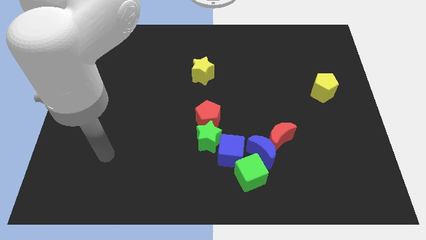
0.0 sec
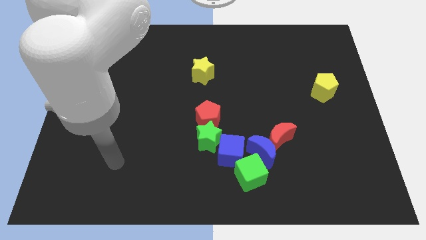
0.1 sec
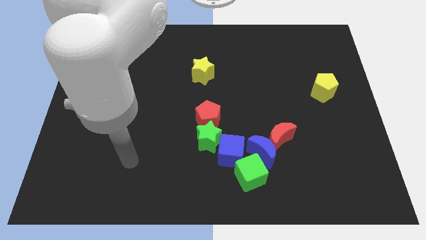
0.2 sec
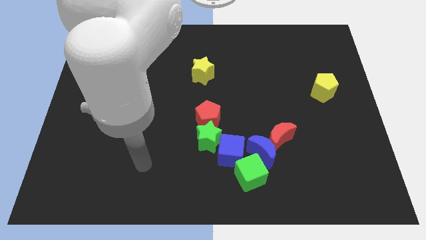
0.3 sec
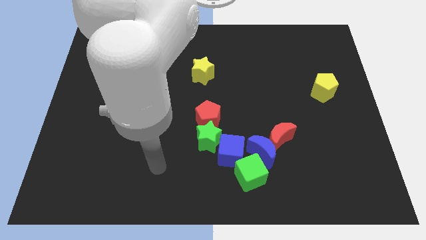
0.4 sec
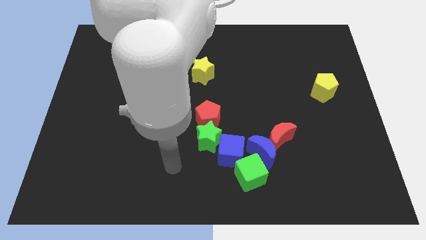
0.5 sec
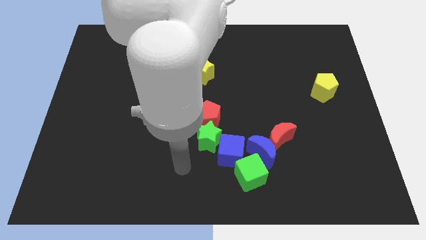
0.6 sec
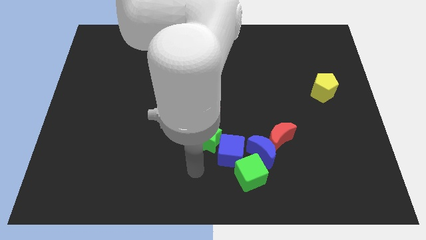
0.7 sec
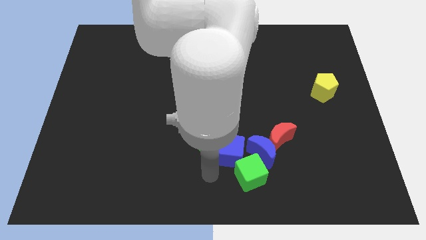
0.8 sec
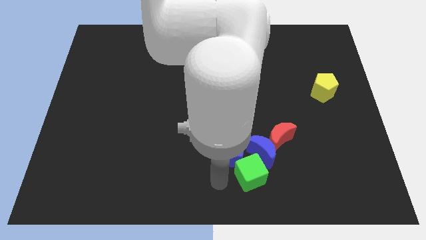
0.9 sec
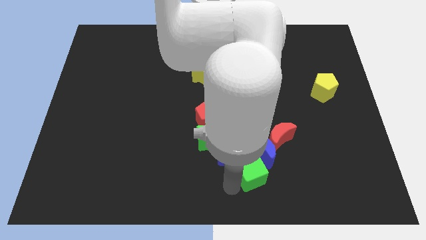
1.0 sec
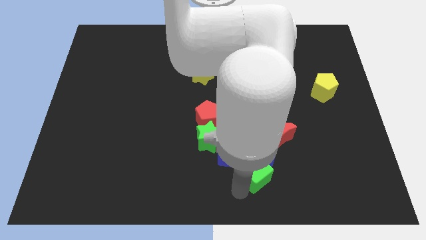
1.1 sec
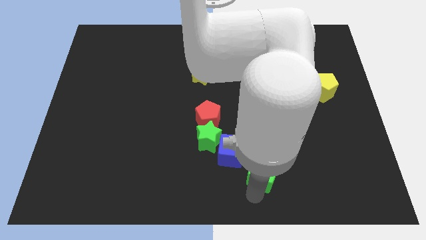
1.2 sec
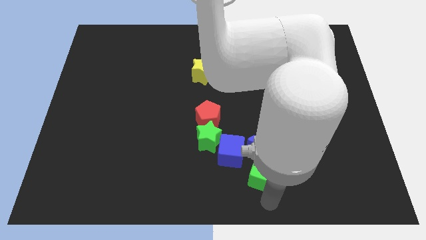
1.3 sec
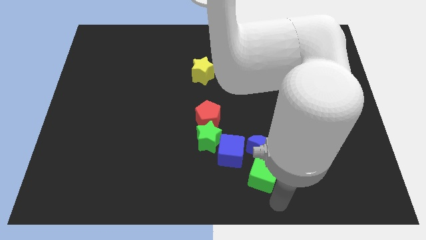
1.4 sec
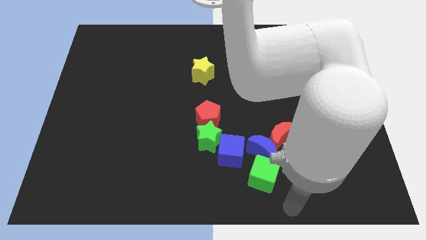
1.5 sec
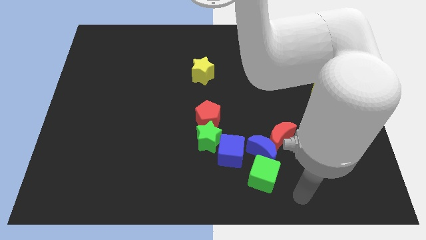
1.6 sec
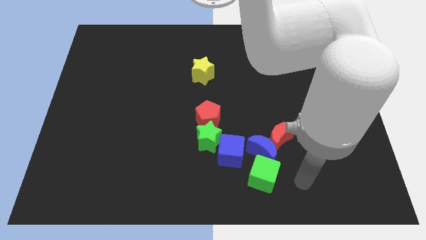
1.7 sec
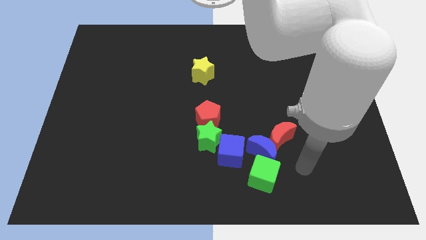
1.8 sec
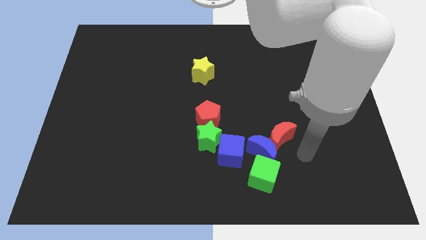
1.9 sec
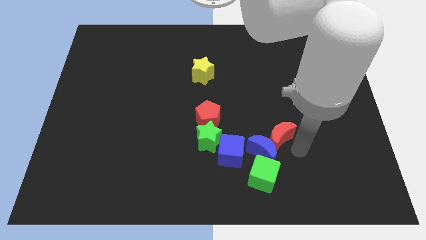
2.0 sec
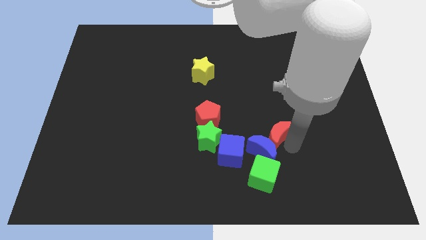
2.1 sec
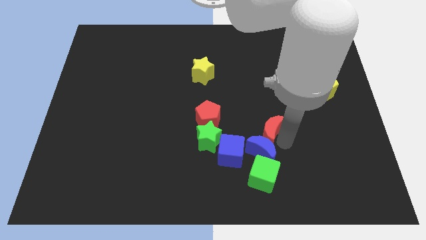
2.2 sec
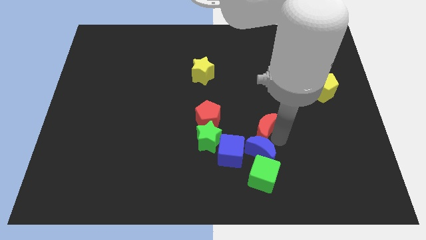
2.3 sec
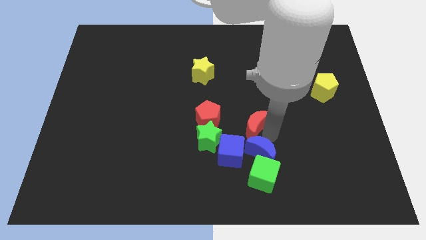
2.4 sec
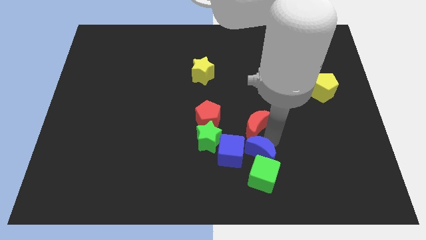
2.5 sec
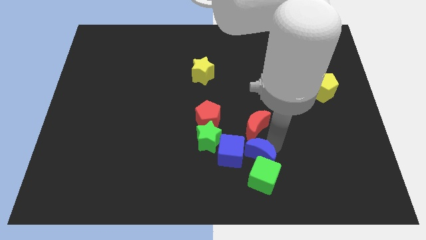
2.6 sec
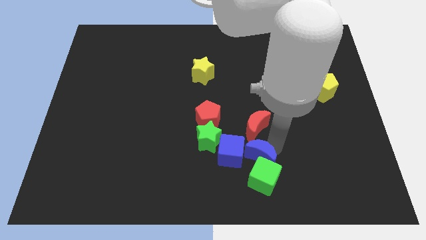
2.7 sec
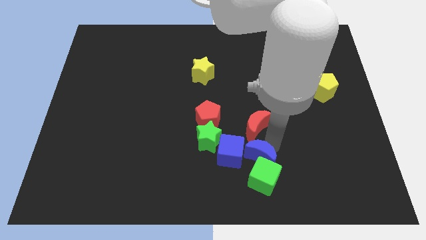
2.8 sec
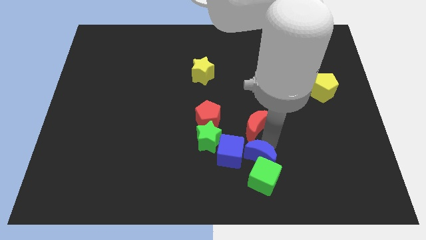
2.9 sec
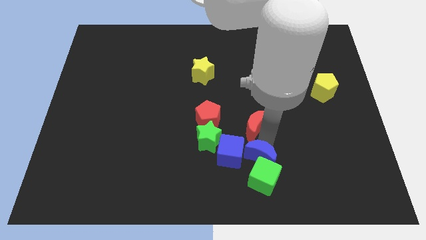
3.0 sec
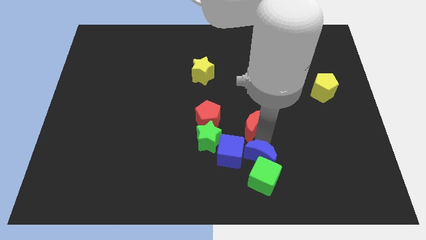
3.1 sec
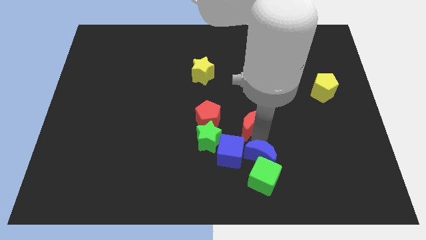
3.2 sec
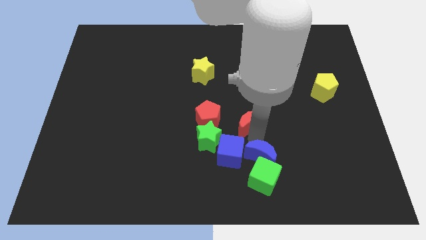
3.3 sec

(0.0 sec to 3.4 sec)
push the red moon diagonally upwards and left a bit

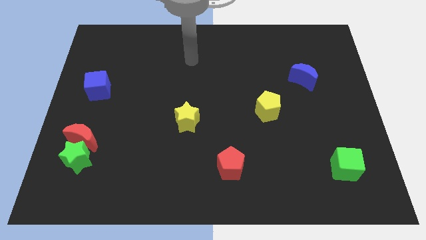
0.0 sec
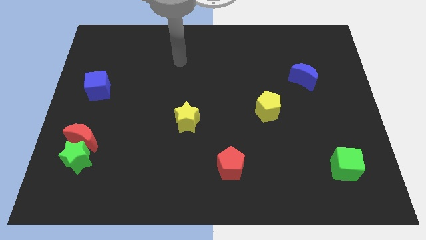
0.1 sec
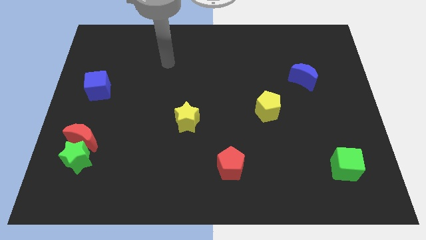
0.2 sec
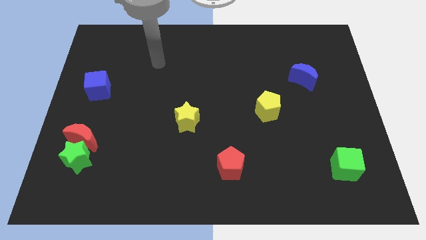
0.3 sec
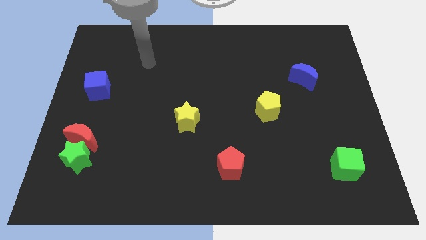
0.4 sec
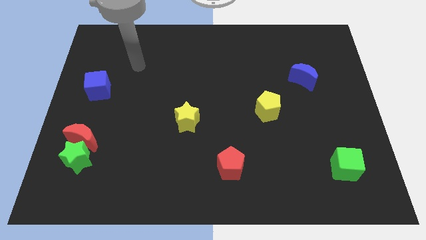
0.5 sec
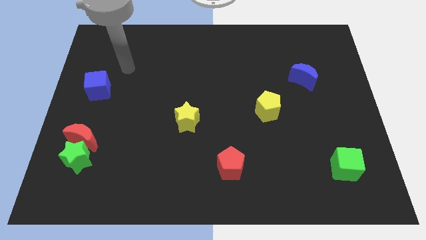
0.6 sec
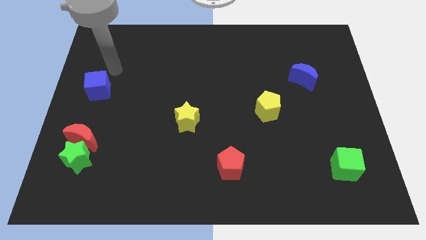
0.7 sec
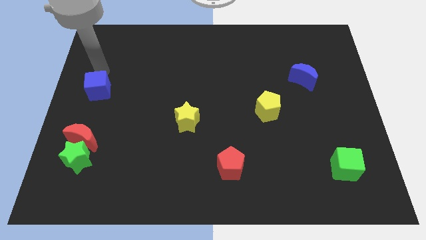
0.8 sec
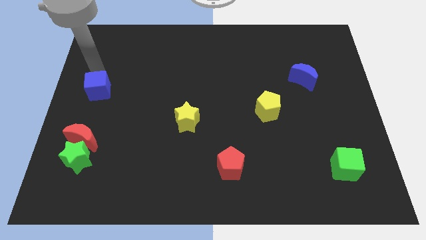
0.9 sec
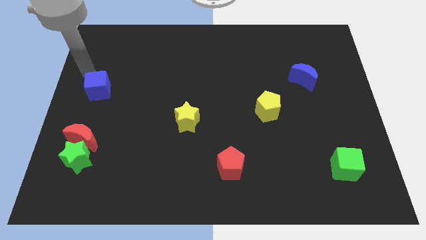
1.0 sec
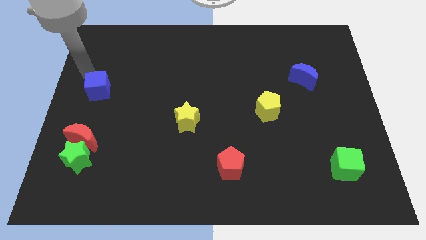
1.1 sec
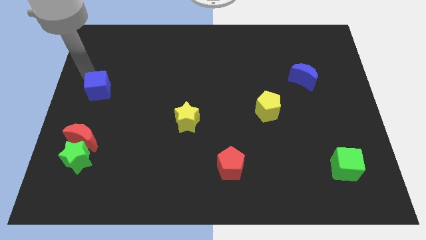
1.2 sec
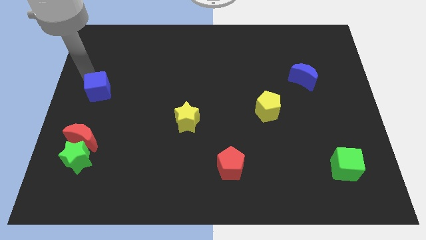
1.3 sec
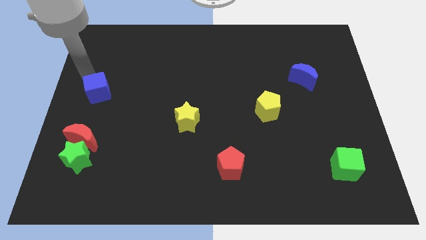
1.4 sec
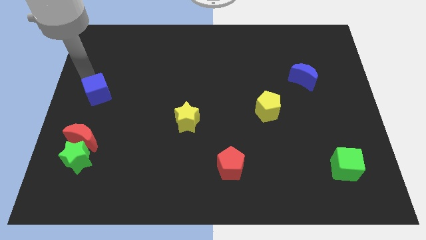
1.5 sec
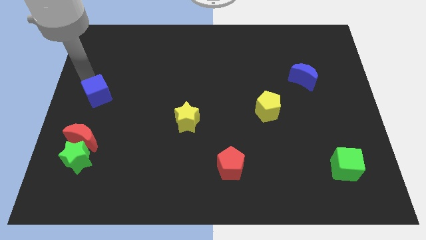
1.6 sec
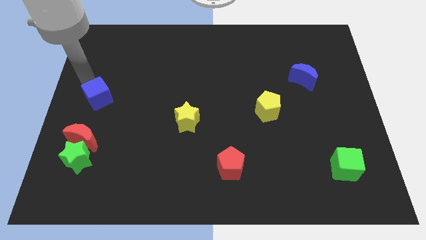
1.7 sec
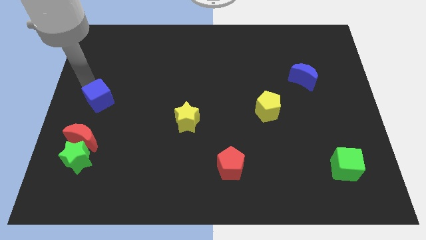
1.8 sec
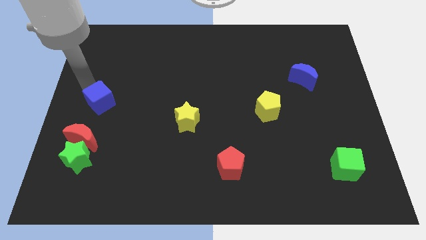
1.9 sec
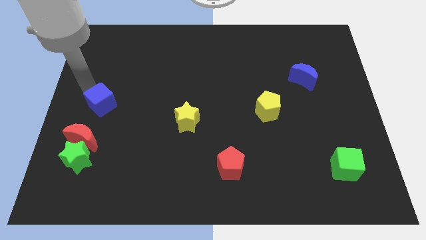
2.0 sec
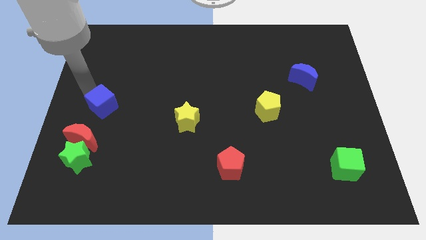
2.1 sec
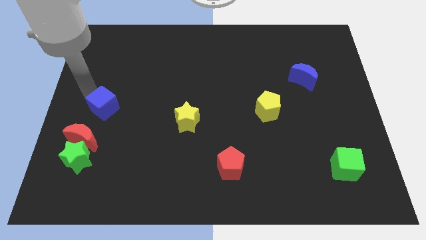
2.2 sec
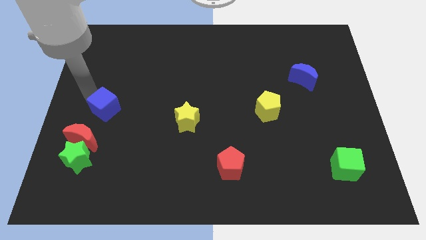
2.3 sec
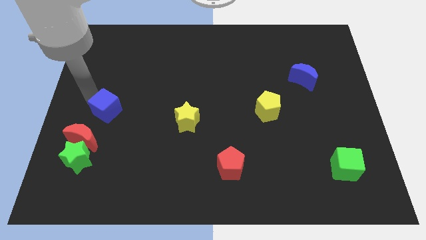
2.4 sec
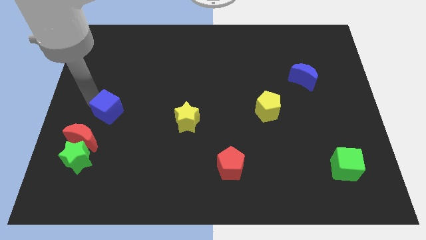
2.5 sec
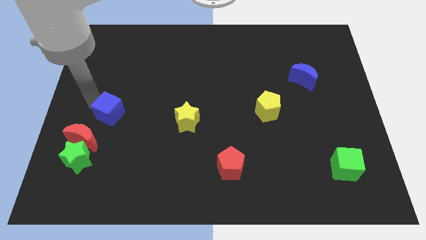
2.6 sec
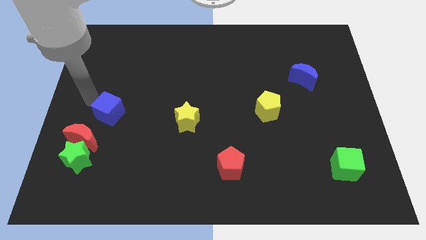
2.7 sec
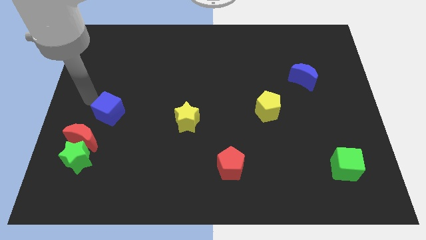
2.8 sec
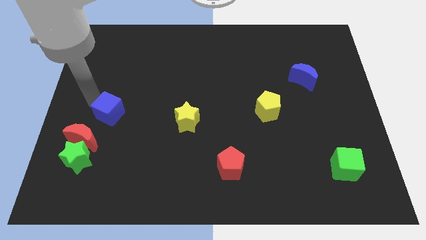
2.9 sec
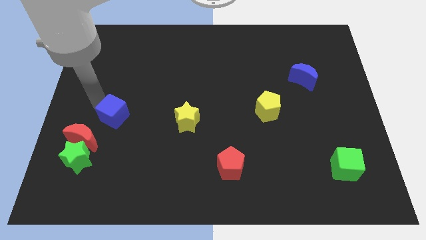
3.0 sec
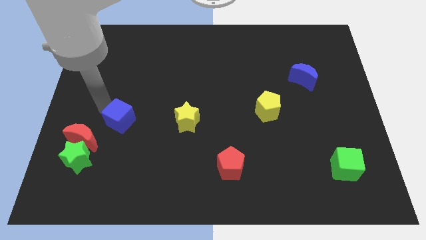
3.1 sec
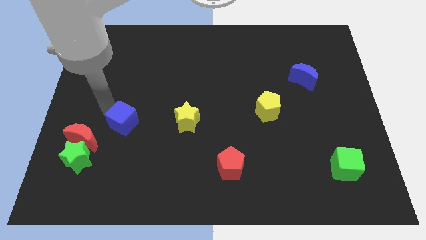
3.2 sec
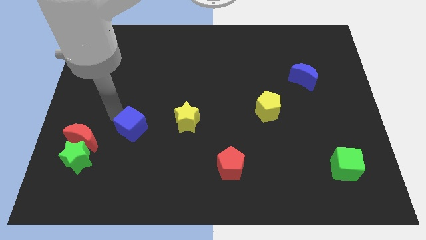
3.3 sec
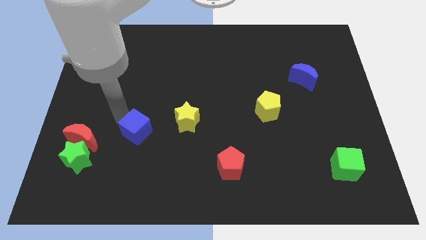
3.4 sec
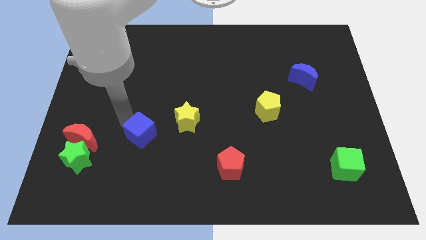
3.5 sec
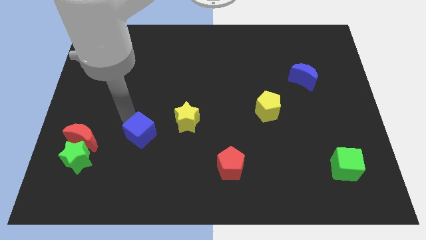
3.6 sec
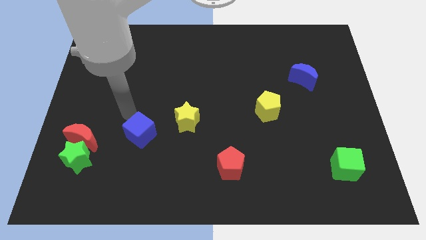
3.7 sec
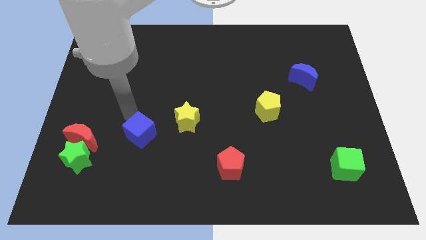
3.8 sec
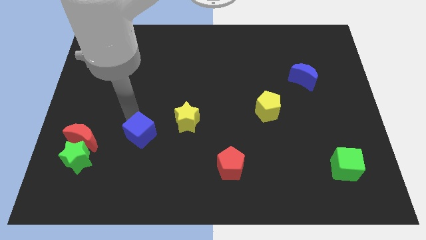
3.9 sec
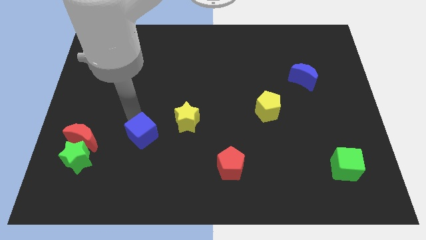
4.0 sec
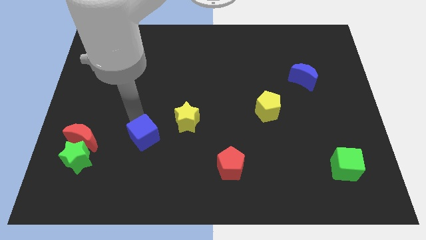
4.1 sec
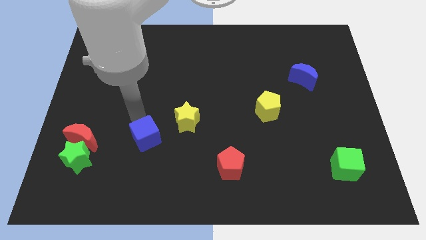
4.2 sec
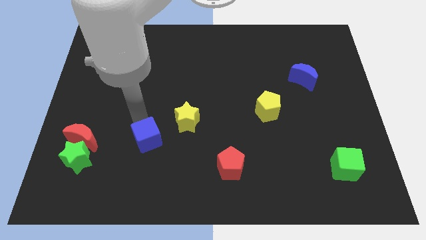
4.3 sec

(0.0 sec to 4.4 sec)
move the blue cube downwards and to the right

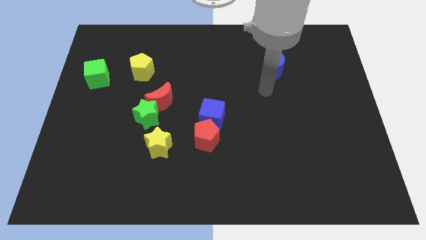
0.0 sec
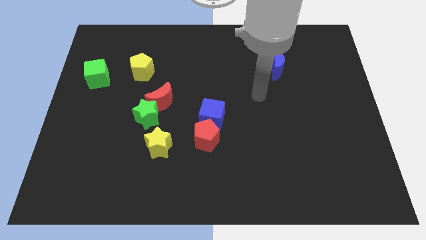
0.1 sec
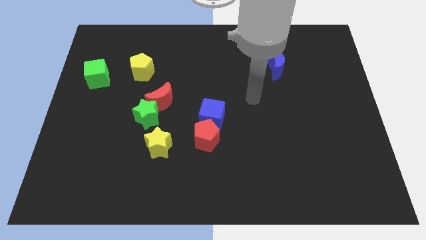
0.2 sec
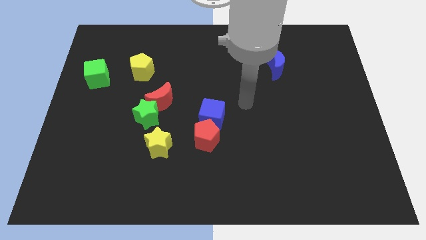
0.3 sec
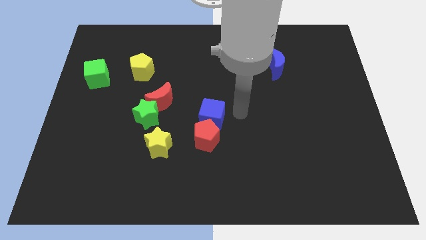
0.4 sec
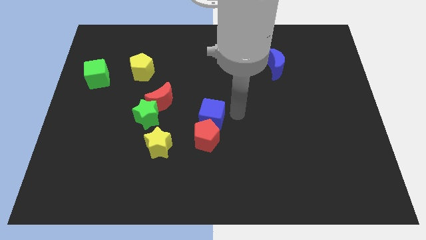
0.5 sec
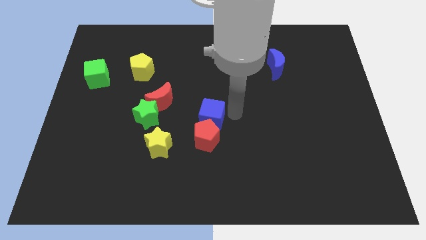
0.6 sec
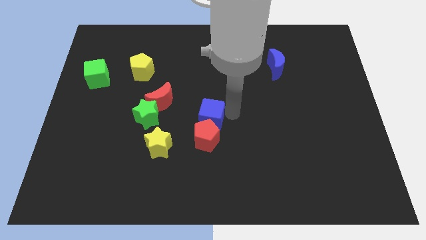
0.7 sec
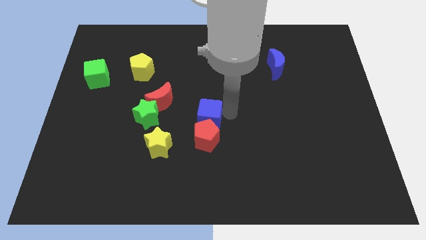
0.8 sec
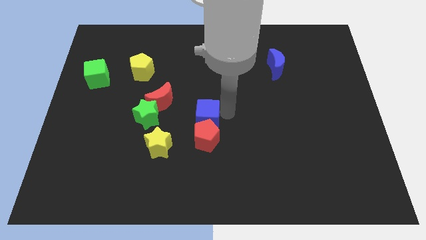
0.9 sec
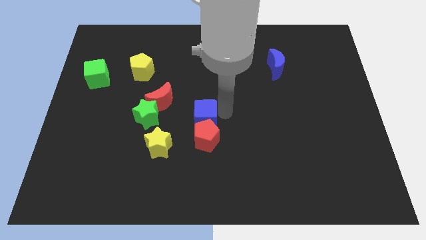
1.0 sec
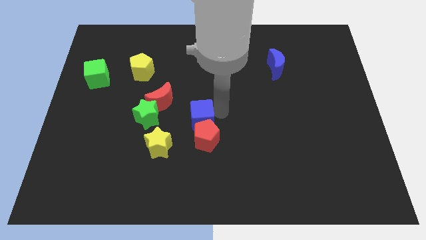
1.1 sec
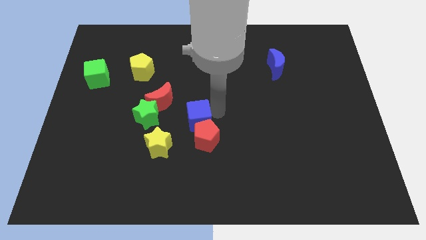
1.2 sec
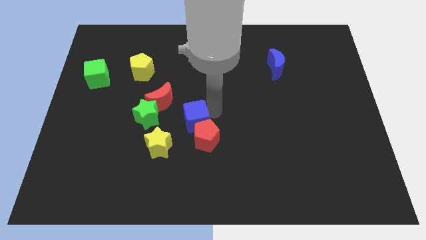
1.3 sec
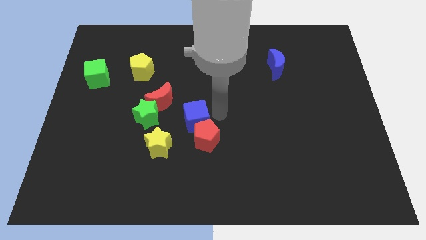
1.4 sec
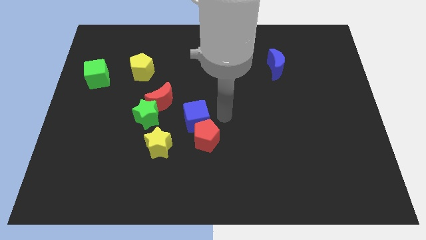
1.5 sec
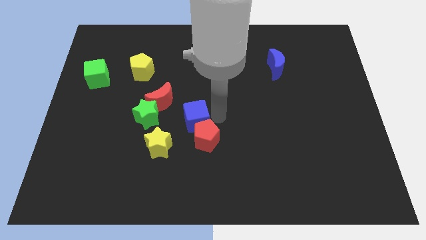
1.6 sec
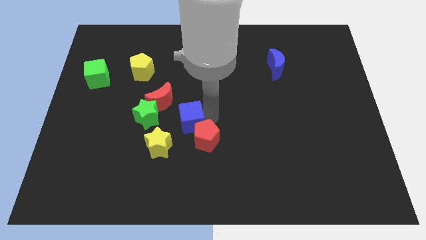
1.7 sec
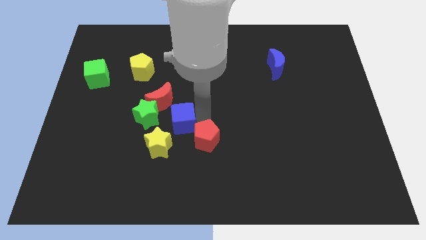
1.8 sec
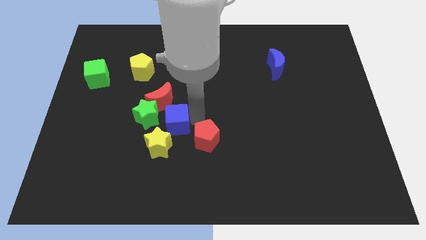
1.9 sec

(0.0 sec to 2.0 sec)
slide the blue cube to the left slightly
